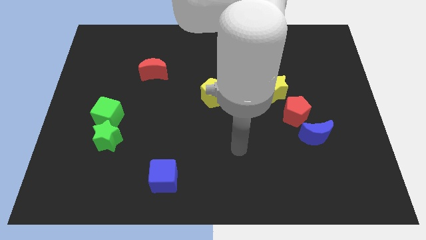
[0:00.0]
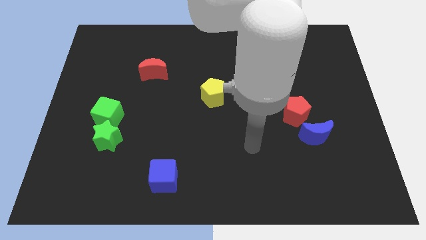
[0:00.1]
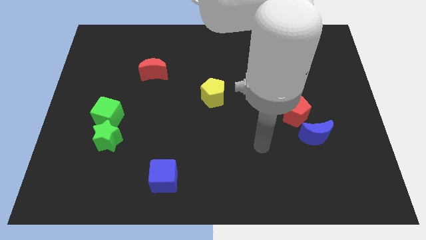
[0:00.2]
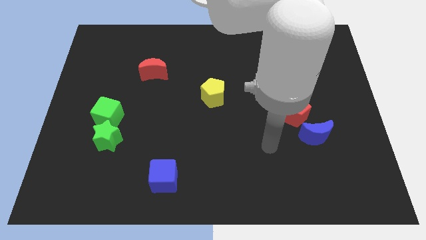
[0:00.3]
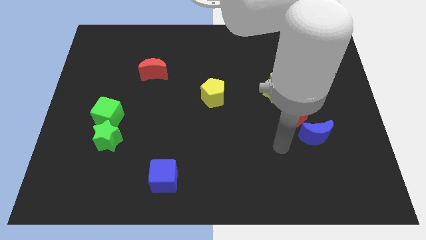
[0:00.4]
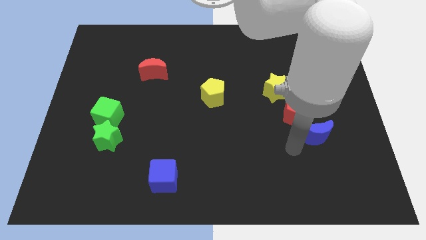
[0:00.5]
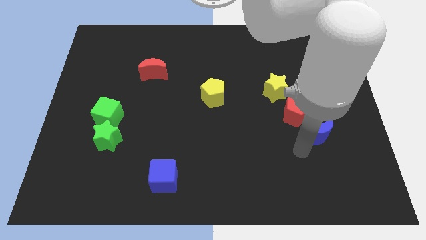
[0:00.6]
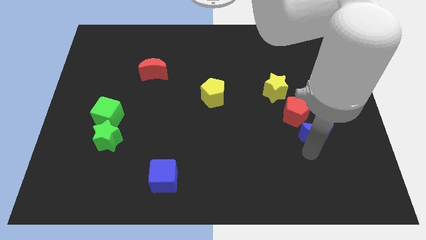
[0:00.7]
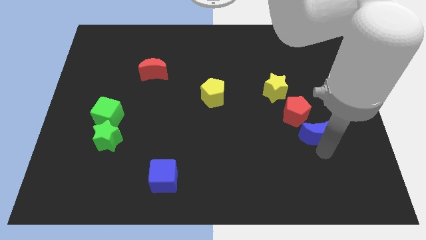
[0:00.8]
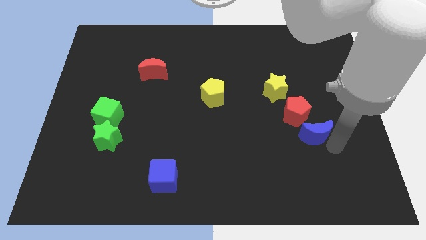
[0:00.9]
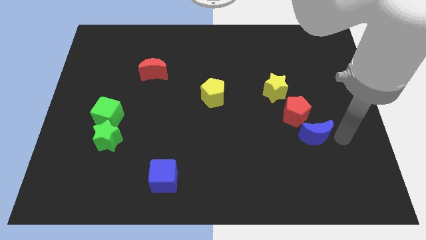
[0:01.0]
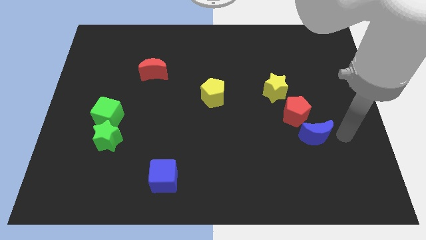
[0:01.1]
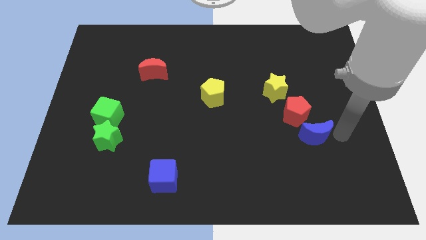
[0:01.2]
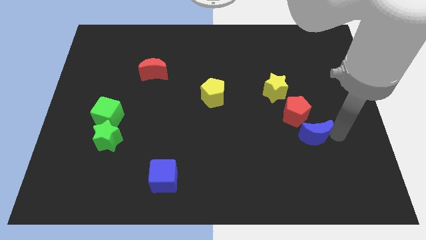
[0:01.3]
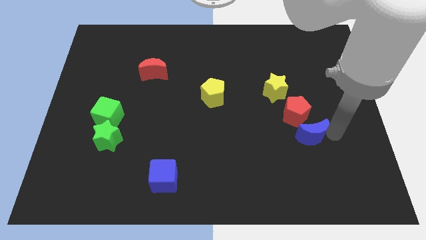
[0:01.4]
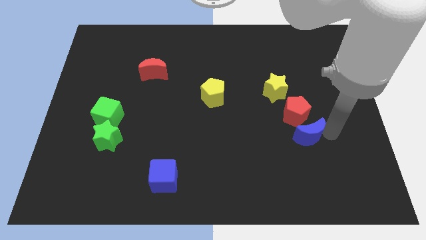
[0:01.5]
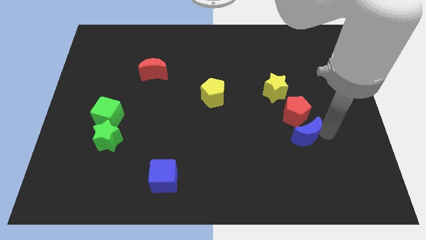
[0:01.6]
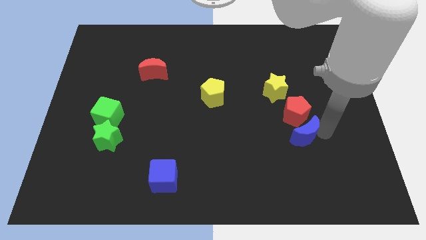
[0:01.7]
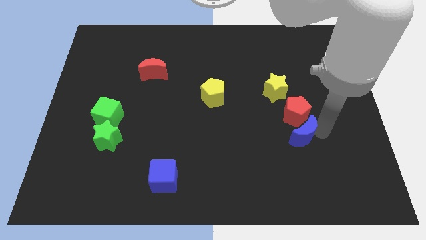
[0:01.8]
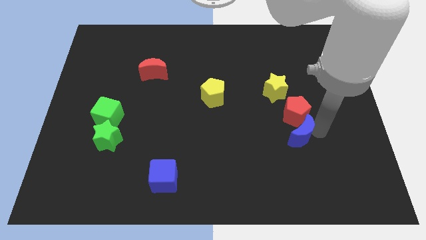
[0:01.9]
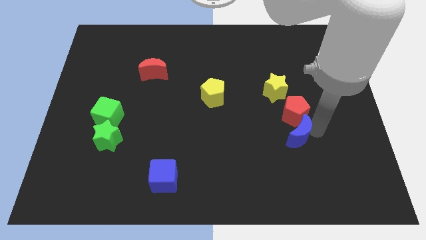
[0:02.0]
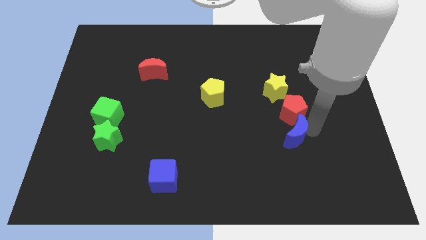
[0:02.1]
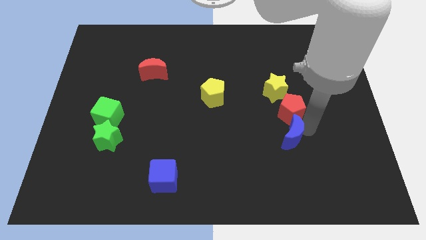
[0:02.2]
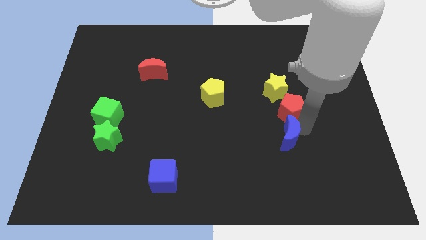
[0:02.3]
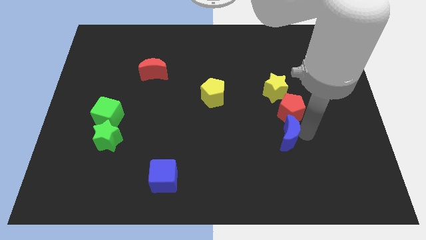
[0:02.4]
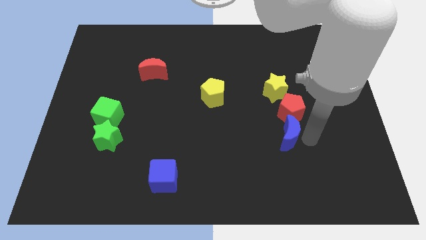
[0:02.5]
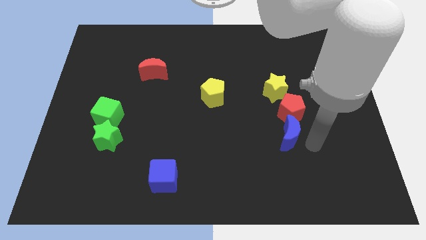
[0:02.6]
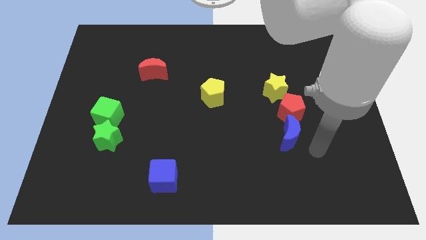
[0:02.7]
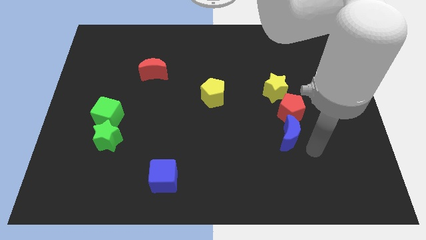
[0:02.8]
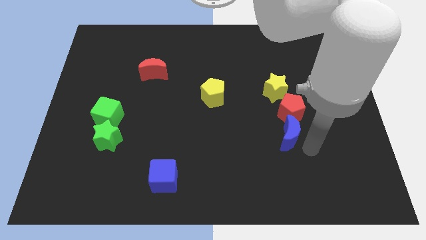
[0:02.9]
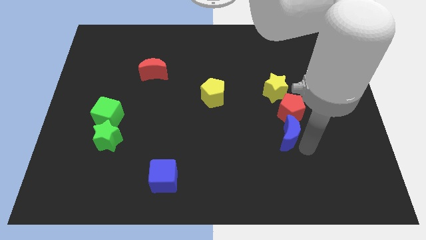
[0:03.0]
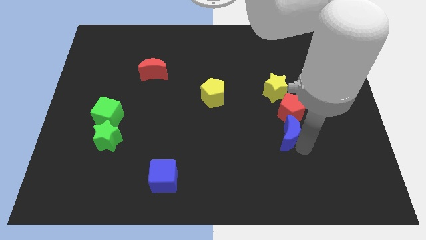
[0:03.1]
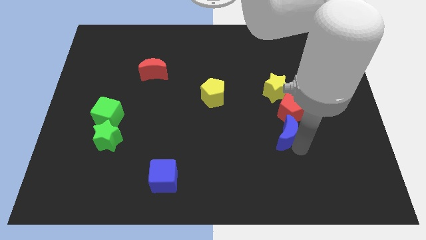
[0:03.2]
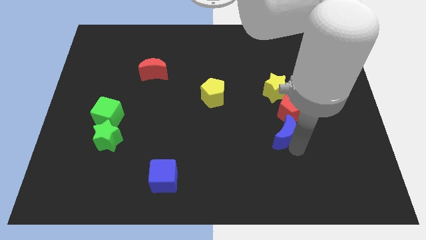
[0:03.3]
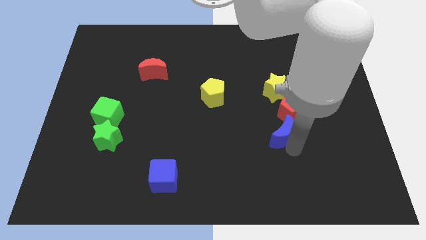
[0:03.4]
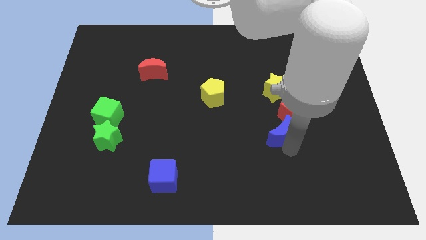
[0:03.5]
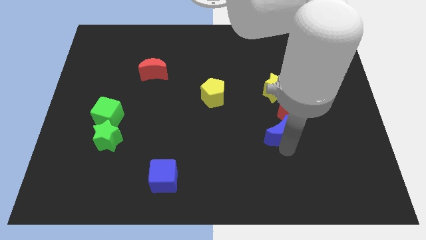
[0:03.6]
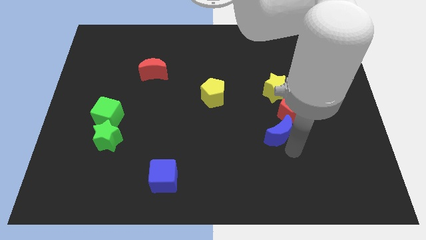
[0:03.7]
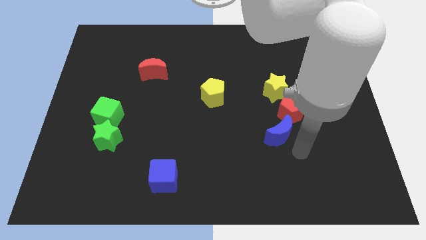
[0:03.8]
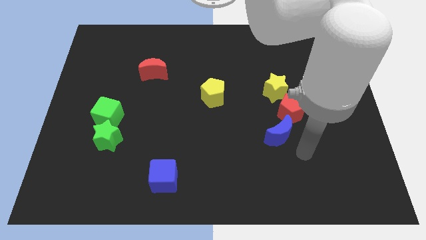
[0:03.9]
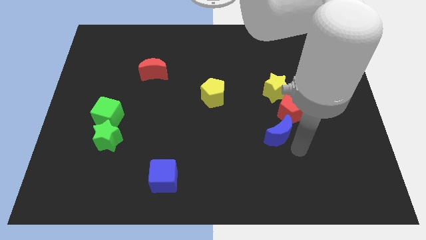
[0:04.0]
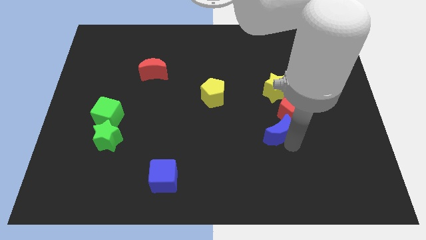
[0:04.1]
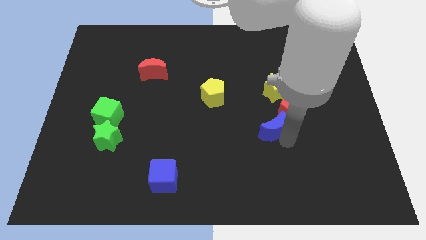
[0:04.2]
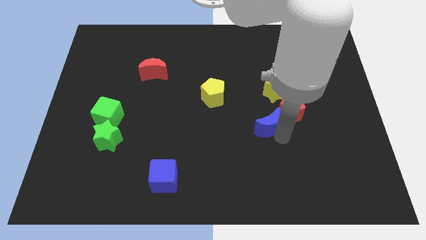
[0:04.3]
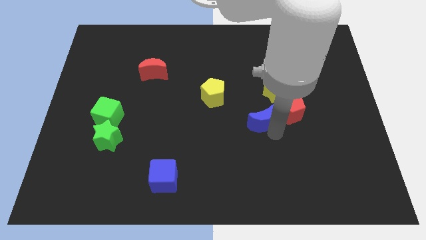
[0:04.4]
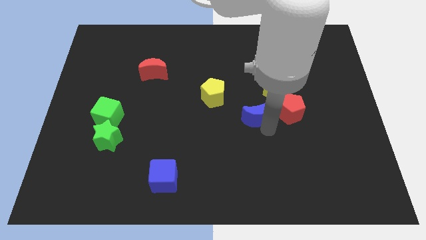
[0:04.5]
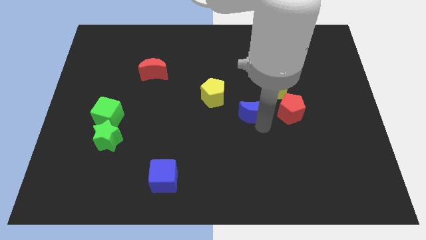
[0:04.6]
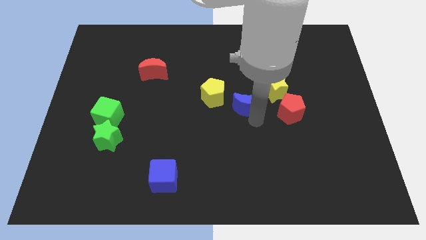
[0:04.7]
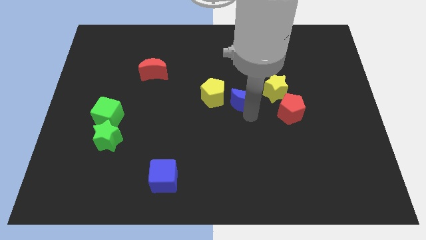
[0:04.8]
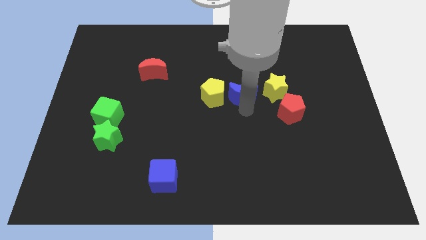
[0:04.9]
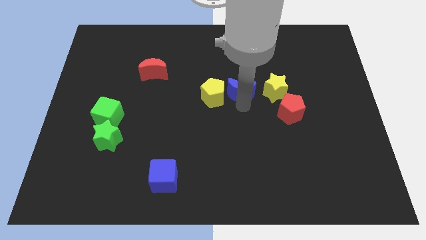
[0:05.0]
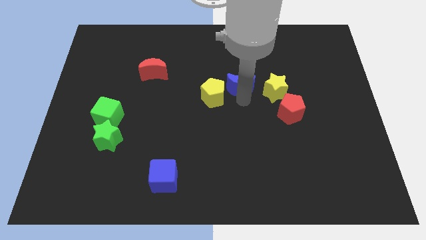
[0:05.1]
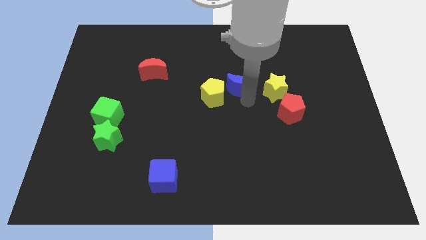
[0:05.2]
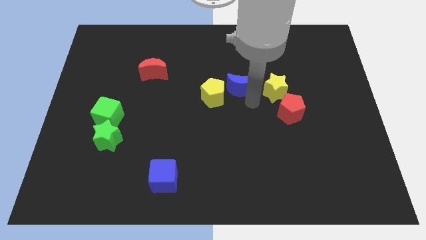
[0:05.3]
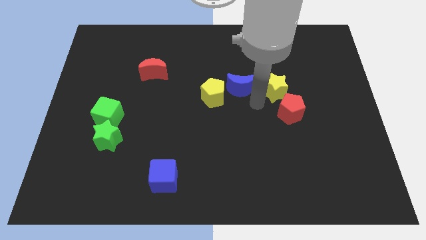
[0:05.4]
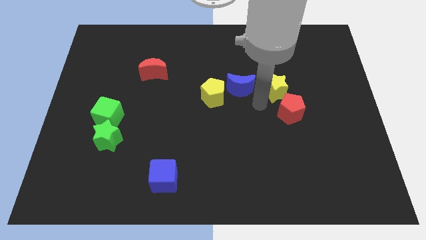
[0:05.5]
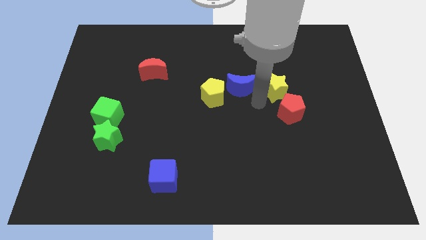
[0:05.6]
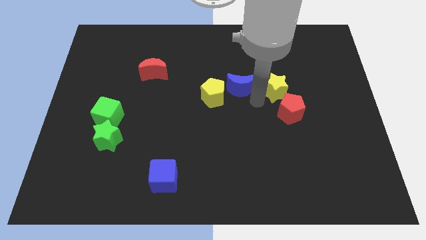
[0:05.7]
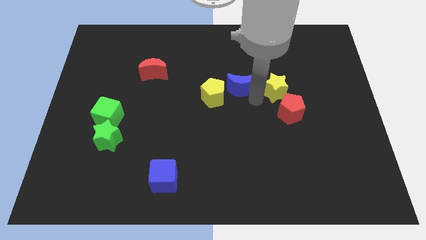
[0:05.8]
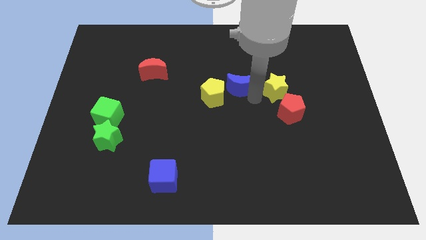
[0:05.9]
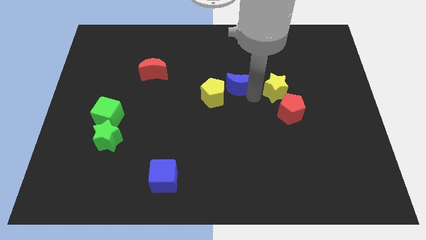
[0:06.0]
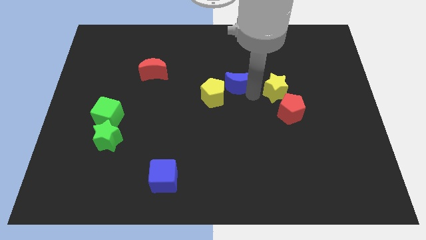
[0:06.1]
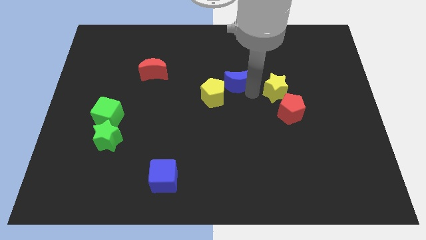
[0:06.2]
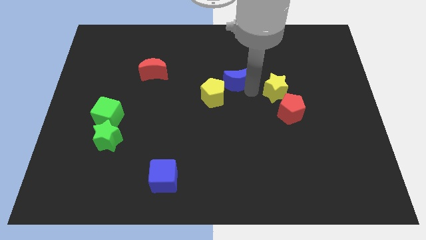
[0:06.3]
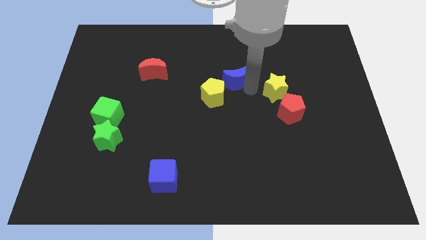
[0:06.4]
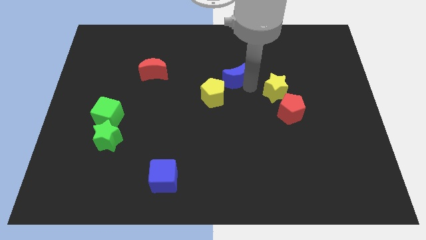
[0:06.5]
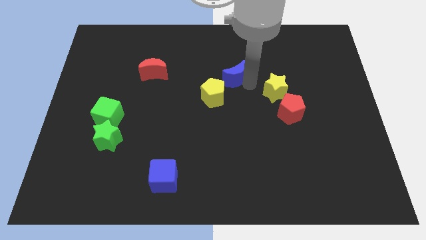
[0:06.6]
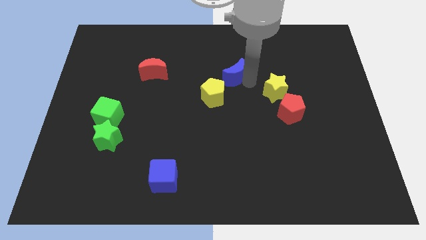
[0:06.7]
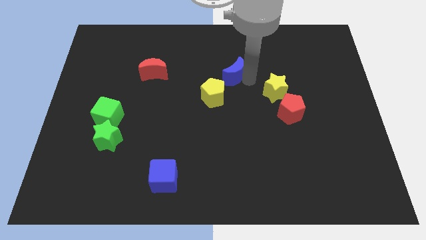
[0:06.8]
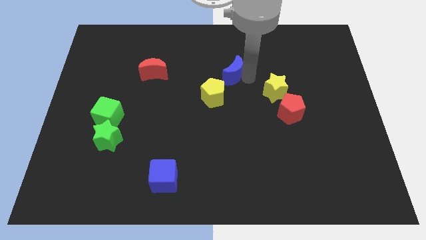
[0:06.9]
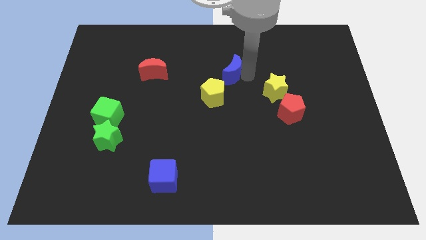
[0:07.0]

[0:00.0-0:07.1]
push the blue moon to the top of the yellow pentagon

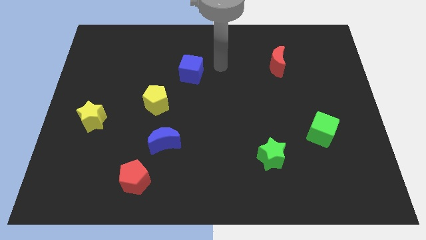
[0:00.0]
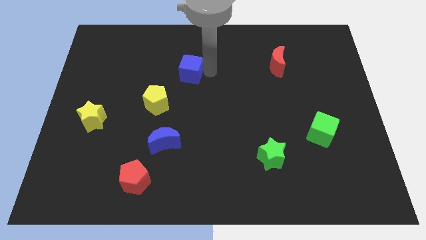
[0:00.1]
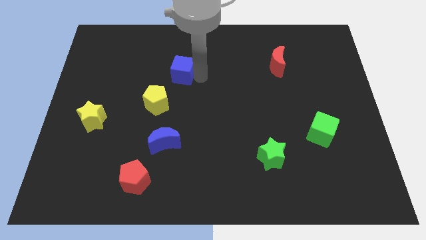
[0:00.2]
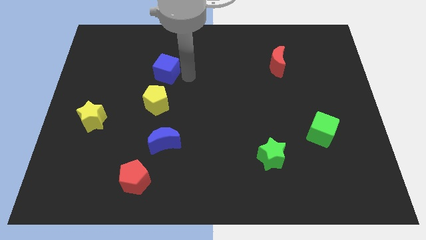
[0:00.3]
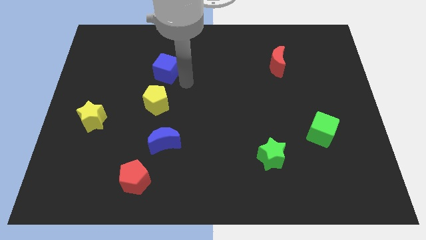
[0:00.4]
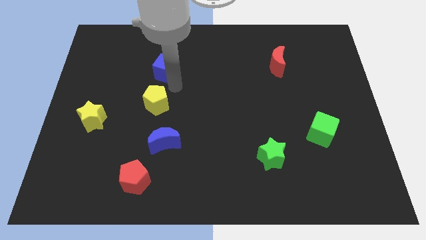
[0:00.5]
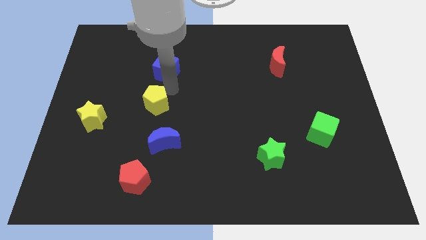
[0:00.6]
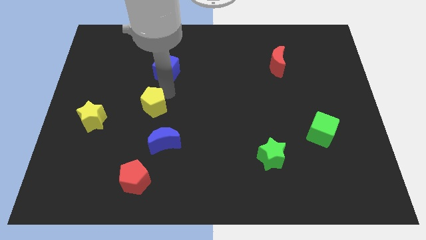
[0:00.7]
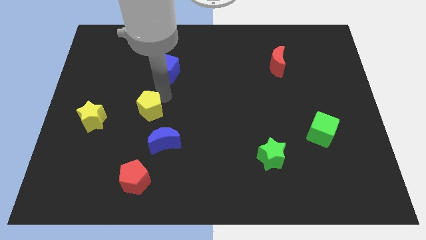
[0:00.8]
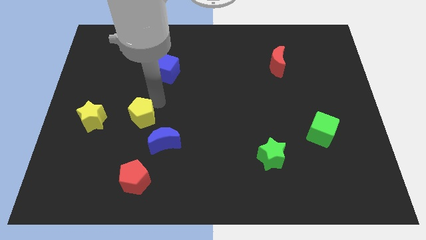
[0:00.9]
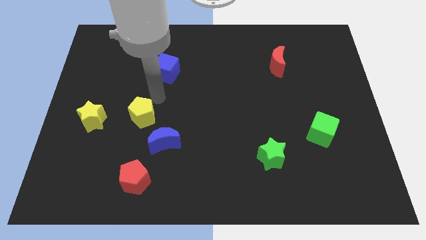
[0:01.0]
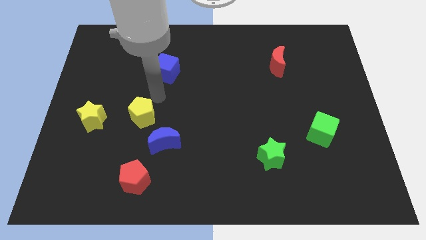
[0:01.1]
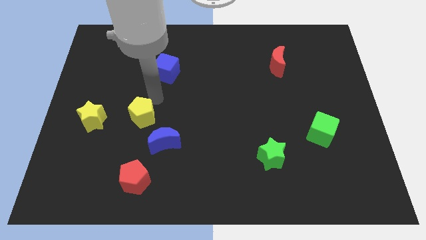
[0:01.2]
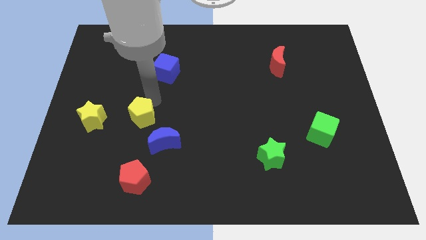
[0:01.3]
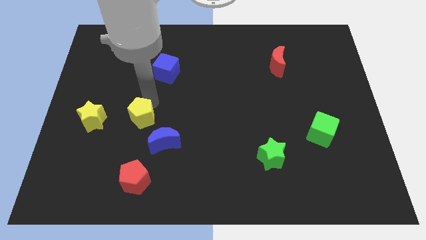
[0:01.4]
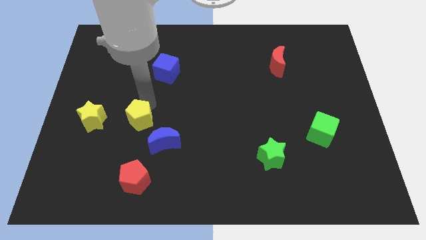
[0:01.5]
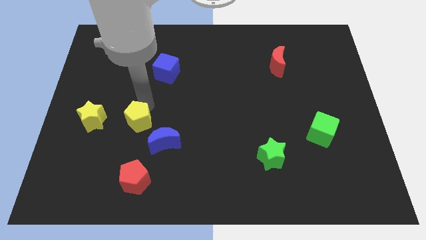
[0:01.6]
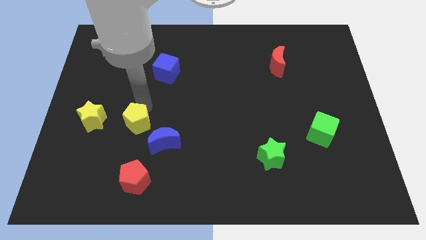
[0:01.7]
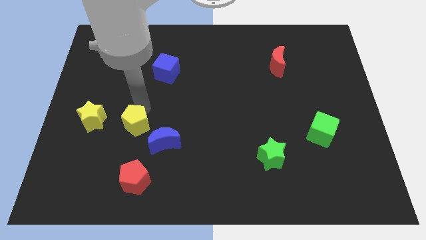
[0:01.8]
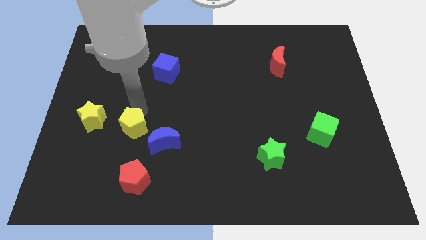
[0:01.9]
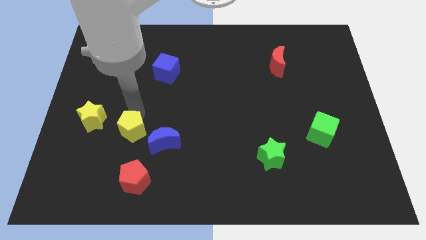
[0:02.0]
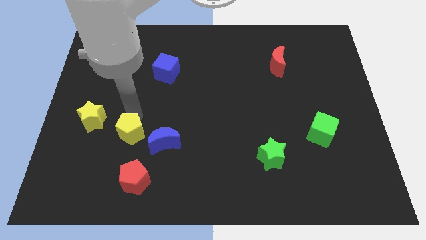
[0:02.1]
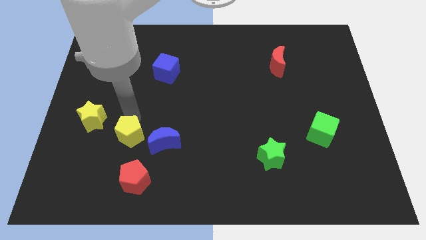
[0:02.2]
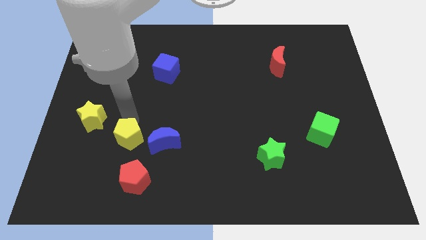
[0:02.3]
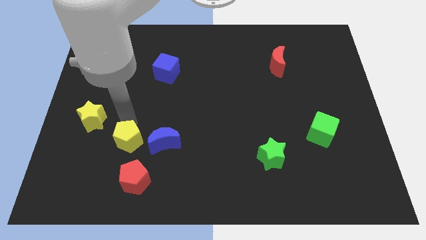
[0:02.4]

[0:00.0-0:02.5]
push the yellow pentagon diagonally up and to the left of the red pentagon
